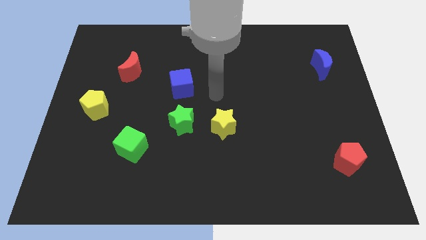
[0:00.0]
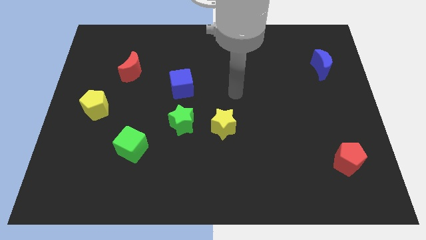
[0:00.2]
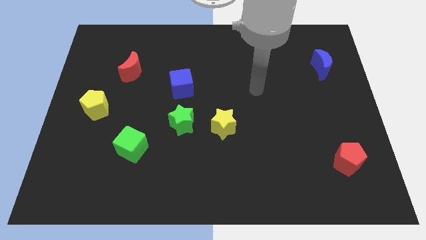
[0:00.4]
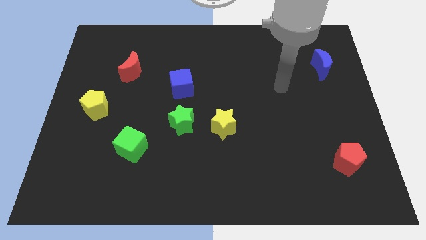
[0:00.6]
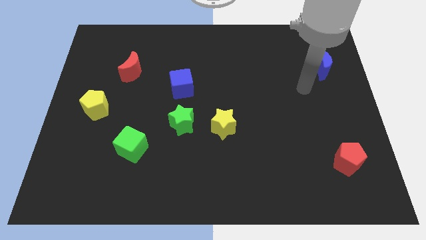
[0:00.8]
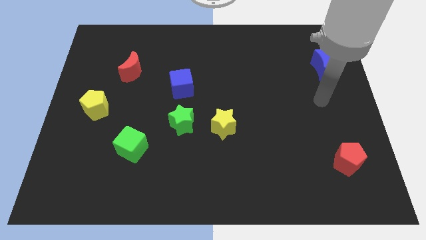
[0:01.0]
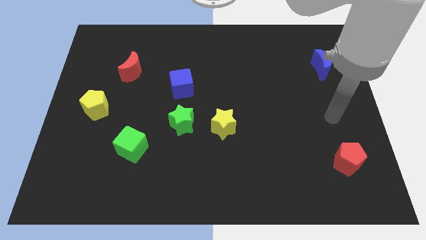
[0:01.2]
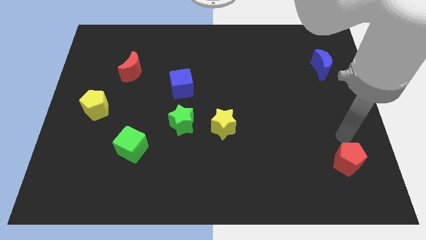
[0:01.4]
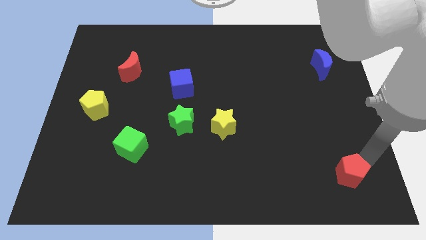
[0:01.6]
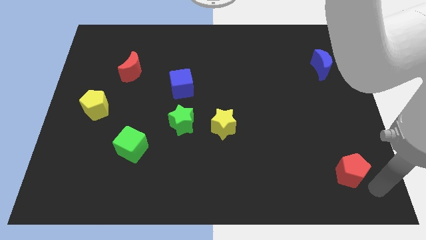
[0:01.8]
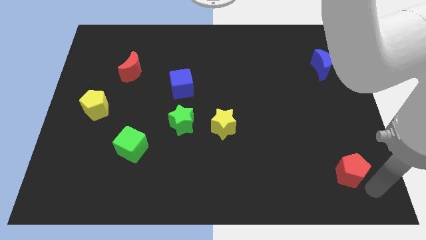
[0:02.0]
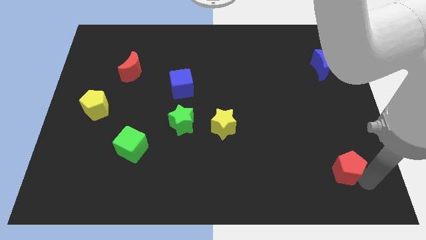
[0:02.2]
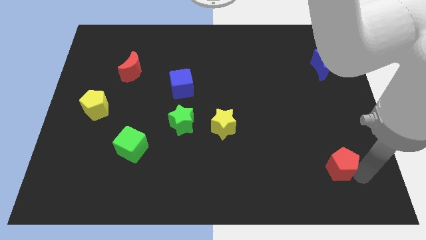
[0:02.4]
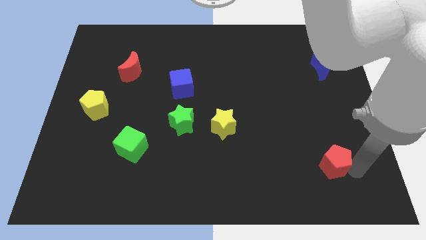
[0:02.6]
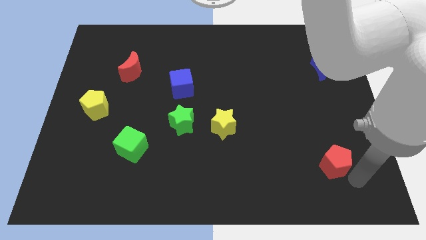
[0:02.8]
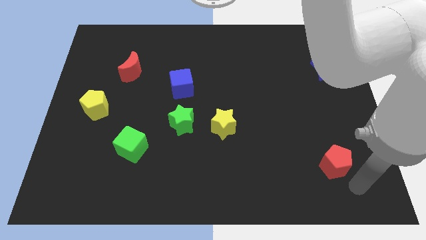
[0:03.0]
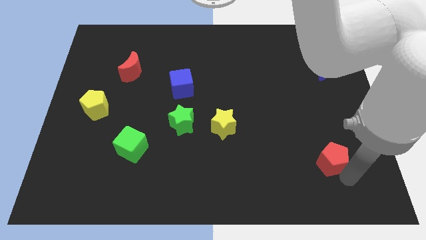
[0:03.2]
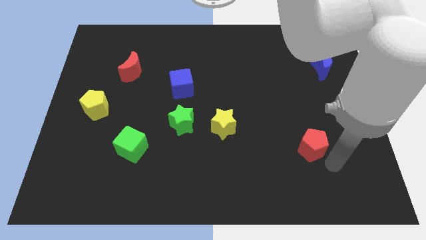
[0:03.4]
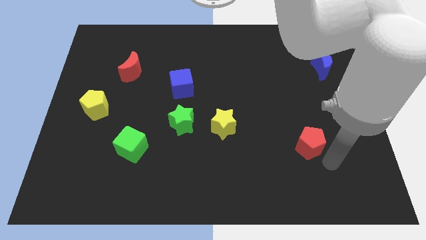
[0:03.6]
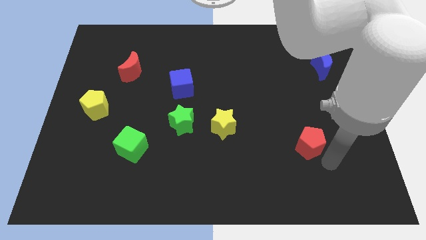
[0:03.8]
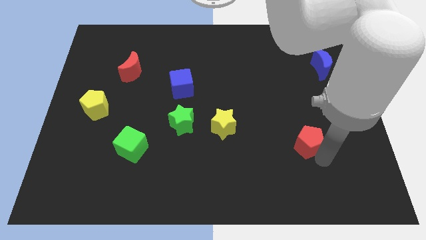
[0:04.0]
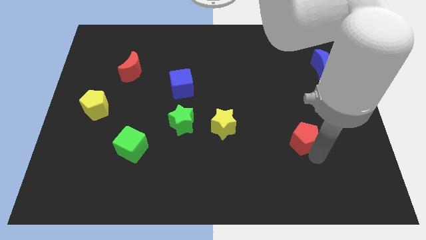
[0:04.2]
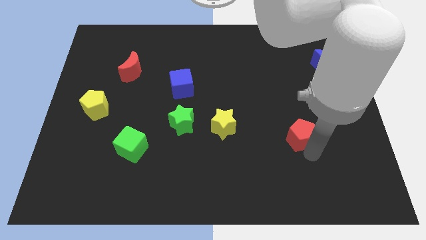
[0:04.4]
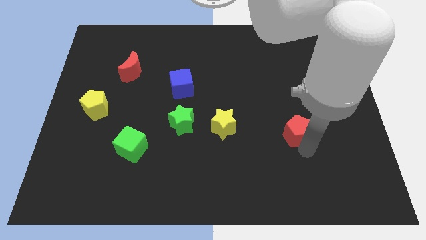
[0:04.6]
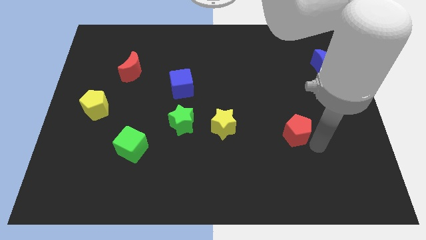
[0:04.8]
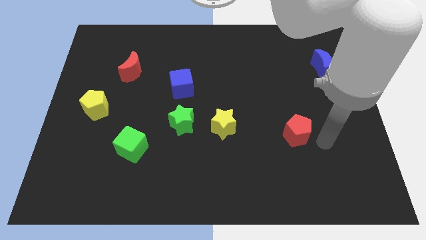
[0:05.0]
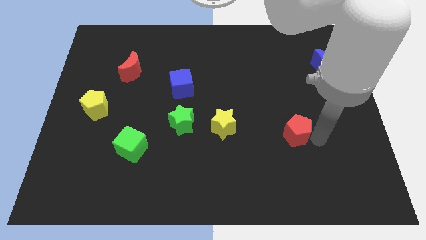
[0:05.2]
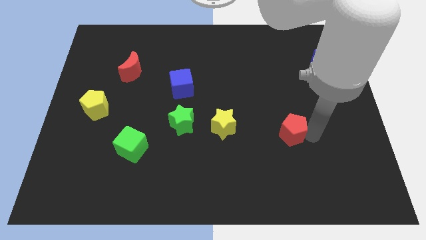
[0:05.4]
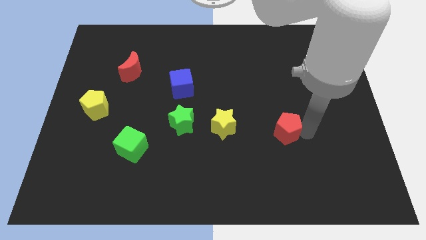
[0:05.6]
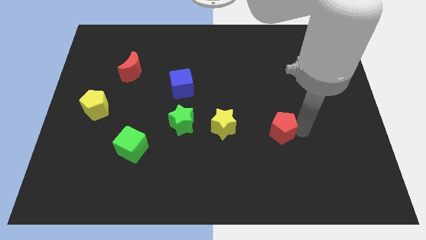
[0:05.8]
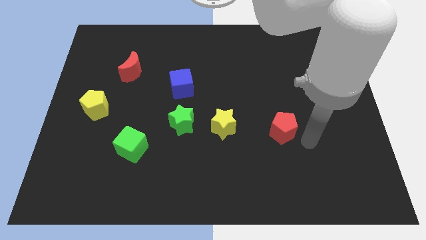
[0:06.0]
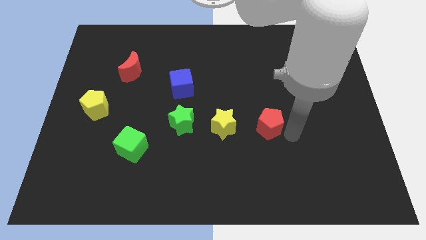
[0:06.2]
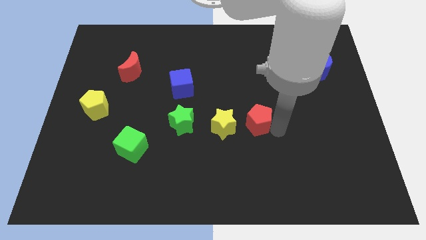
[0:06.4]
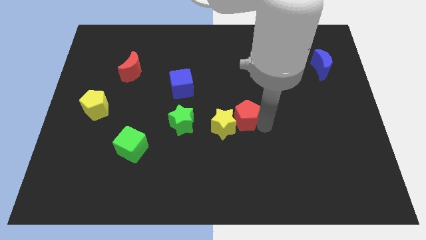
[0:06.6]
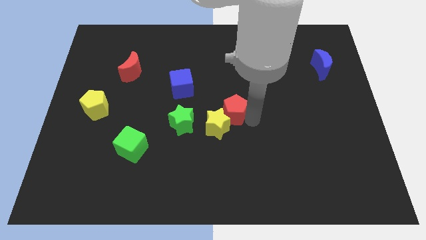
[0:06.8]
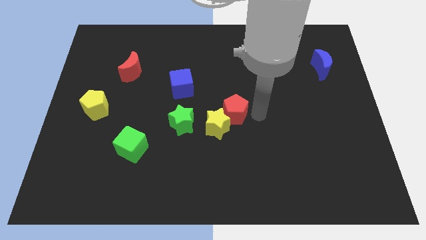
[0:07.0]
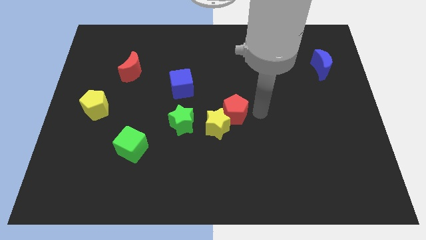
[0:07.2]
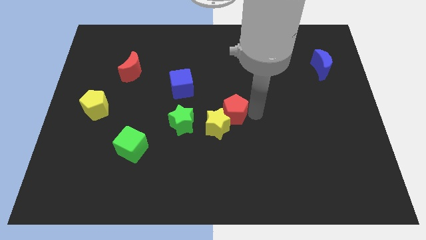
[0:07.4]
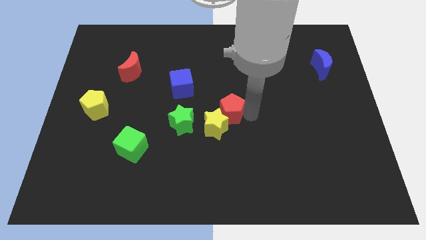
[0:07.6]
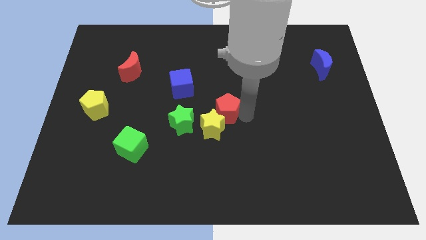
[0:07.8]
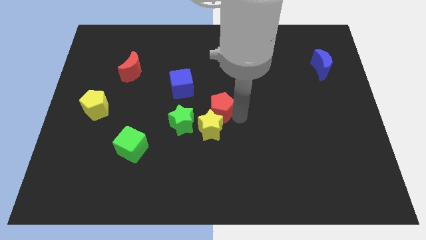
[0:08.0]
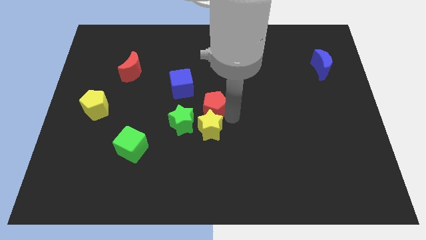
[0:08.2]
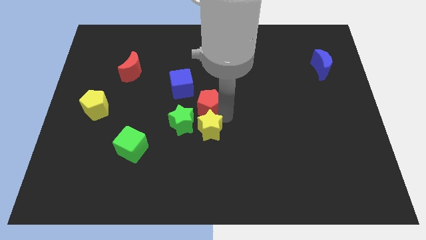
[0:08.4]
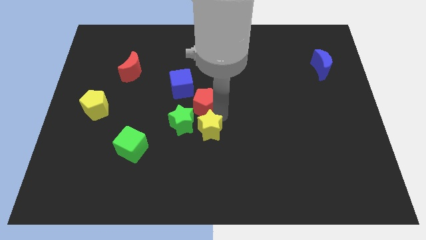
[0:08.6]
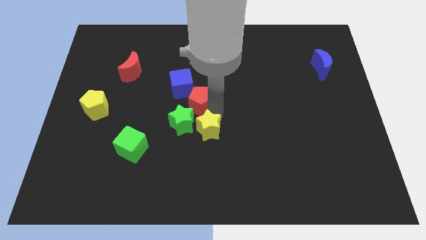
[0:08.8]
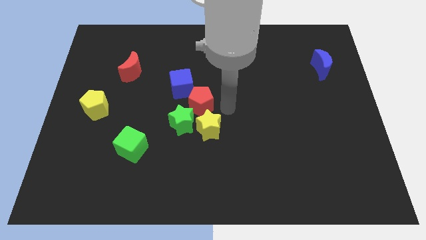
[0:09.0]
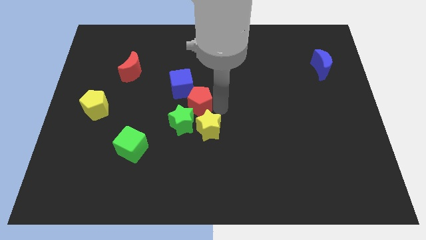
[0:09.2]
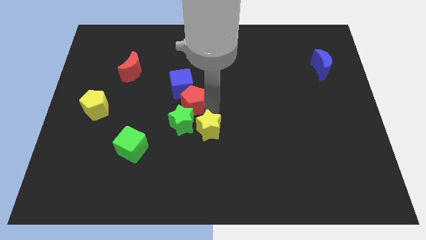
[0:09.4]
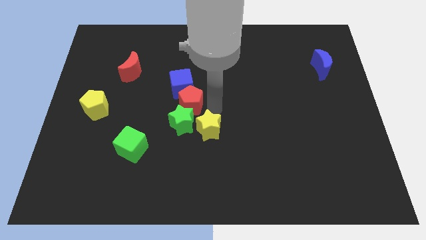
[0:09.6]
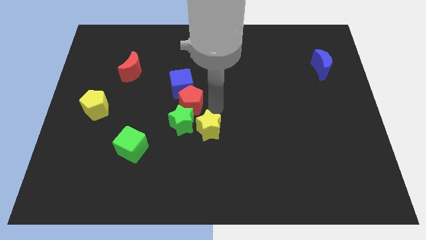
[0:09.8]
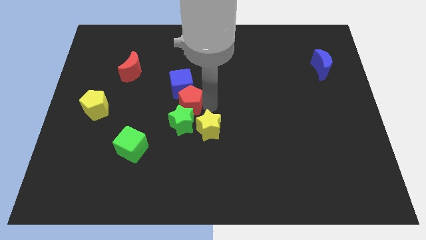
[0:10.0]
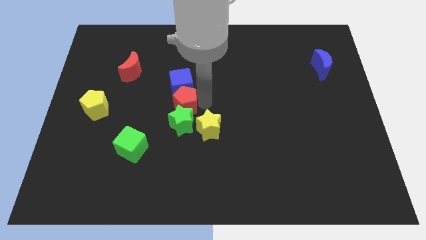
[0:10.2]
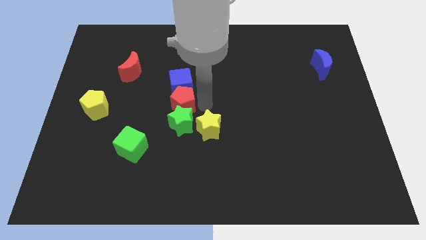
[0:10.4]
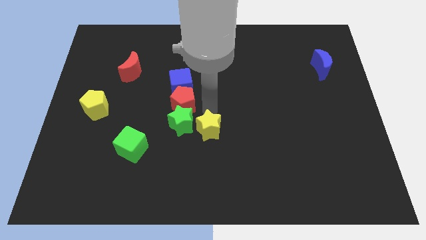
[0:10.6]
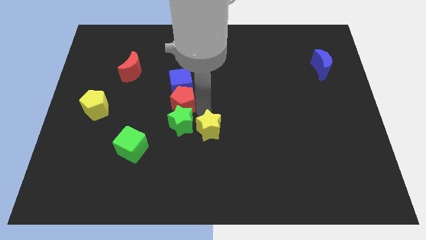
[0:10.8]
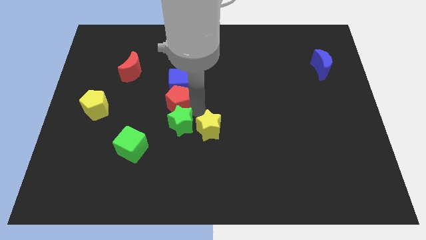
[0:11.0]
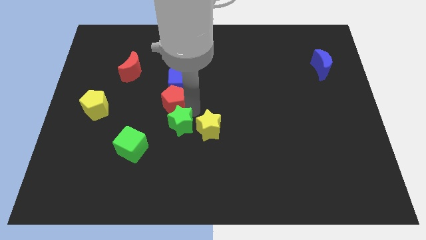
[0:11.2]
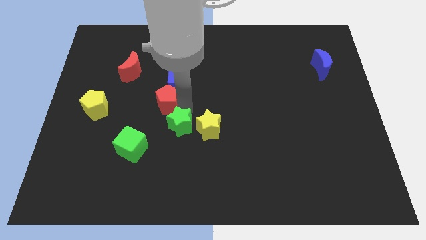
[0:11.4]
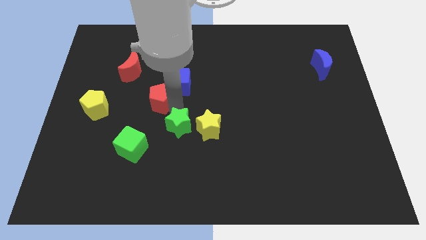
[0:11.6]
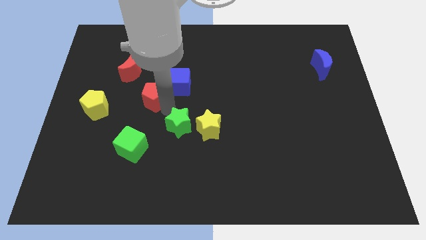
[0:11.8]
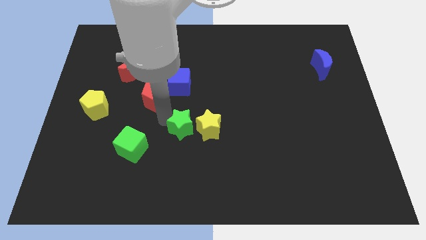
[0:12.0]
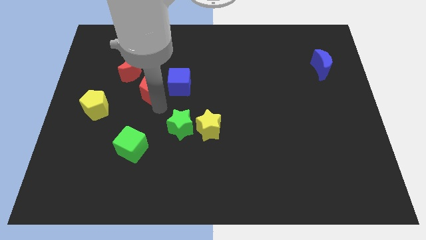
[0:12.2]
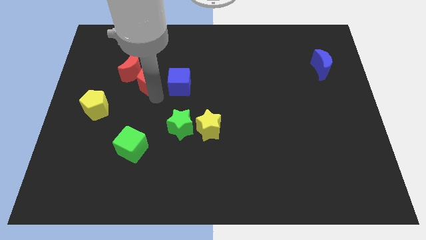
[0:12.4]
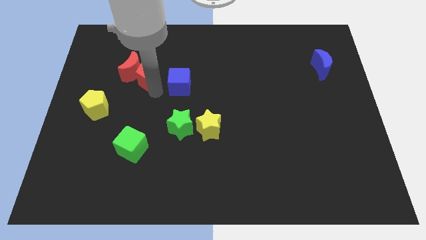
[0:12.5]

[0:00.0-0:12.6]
put the red pentagon towards the red moon

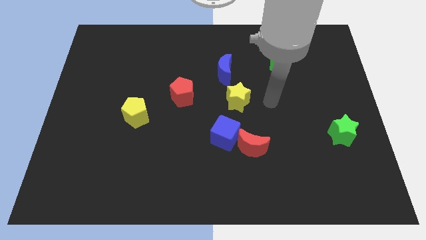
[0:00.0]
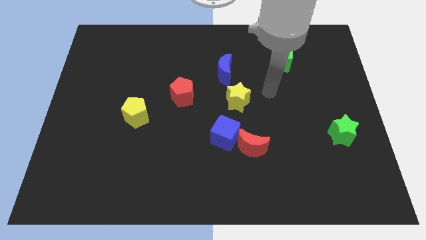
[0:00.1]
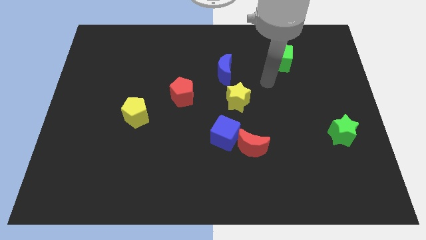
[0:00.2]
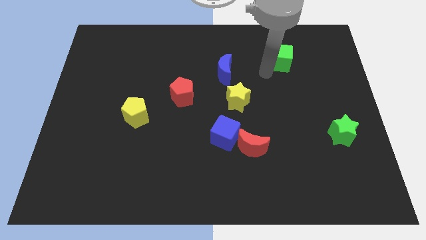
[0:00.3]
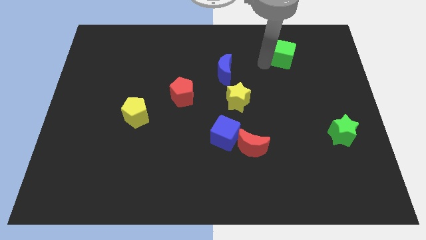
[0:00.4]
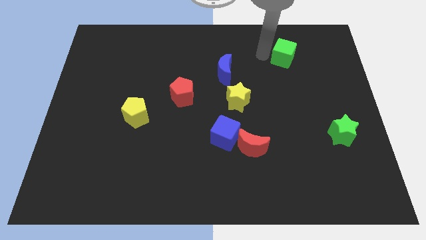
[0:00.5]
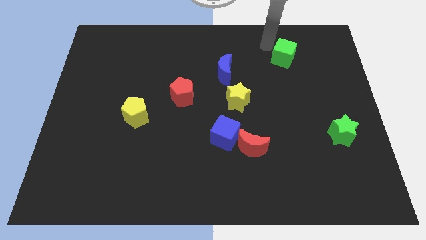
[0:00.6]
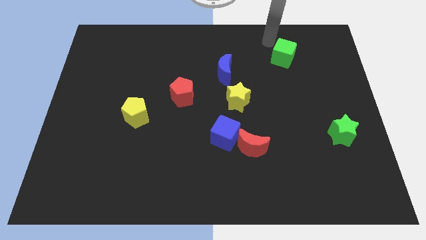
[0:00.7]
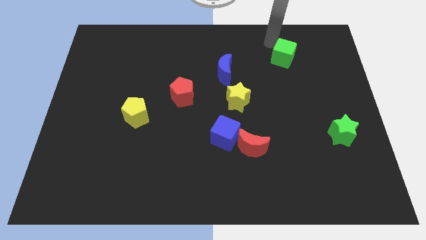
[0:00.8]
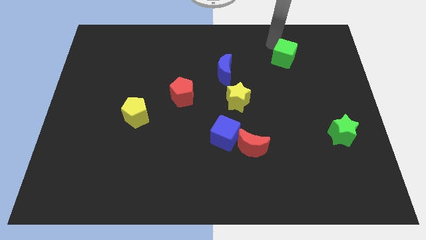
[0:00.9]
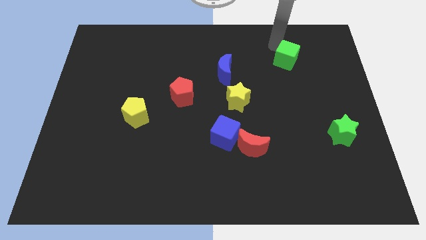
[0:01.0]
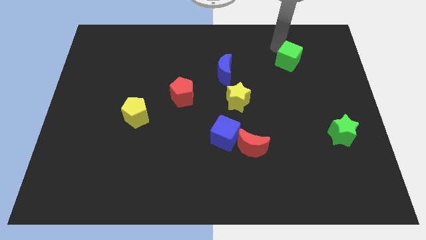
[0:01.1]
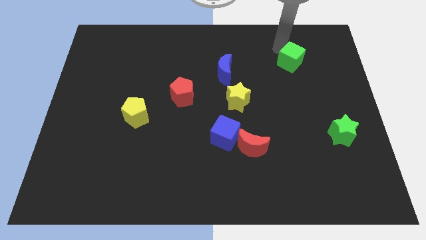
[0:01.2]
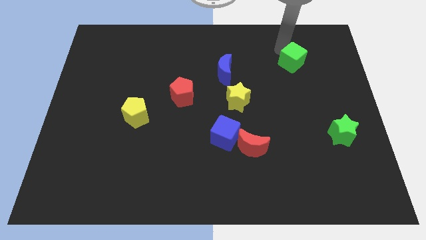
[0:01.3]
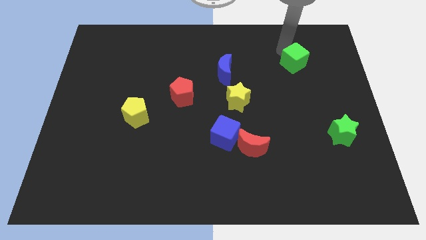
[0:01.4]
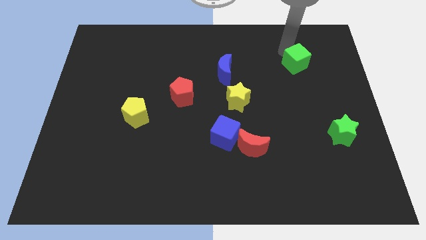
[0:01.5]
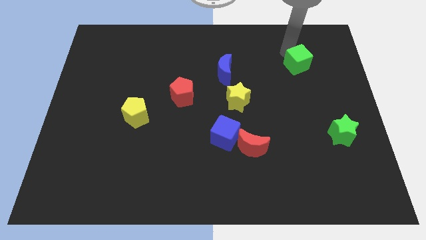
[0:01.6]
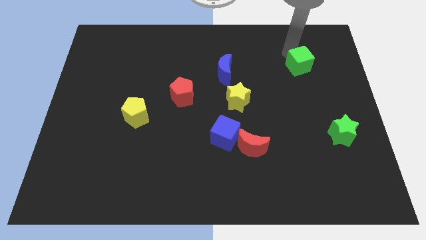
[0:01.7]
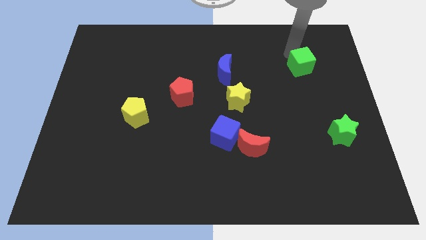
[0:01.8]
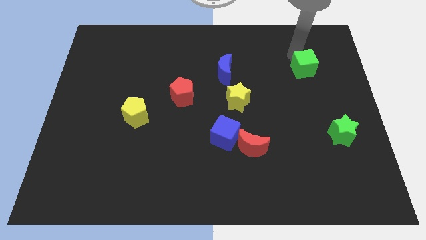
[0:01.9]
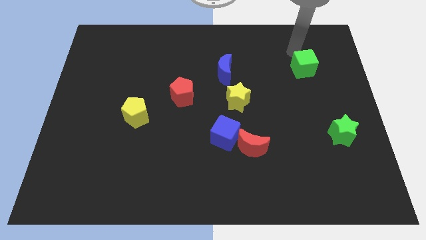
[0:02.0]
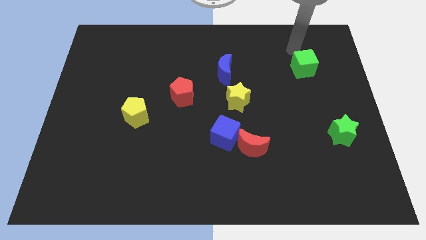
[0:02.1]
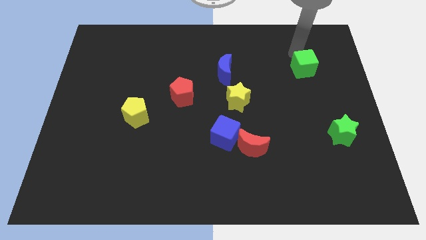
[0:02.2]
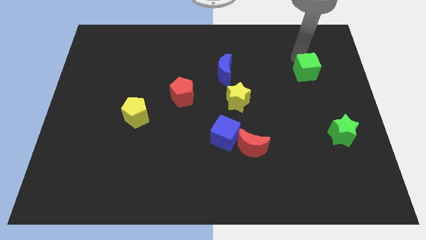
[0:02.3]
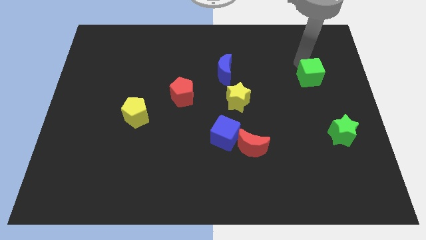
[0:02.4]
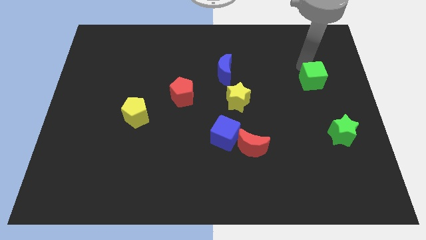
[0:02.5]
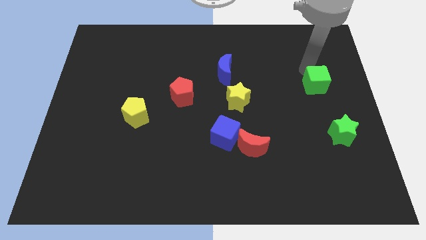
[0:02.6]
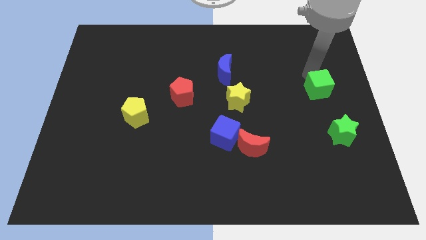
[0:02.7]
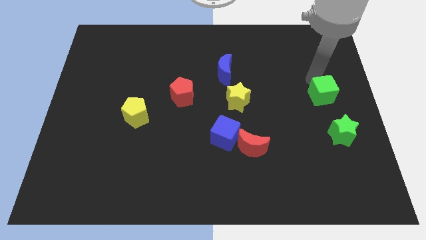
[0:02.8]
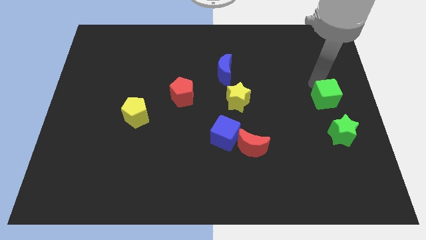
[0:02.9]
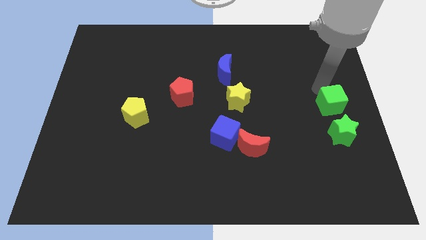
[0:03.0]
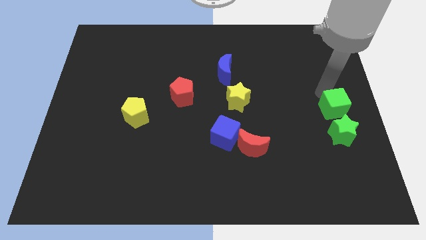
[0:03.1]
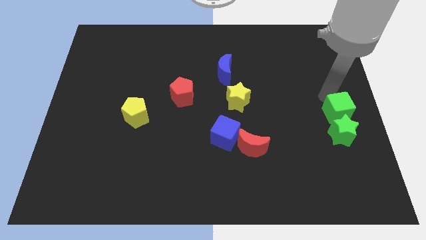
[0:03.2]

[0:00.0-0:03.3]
put the green cube to the green star
